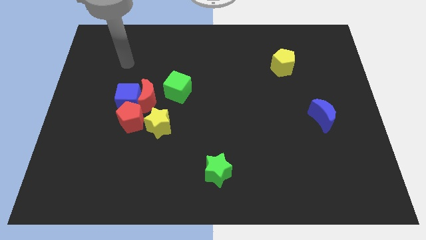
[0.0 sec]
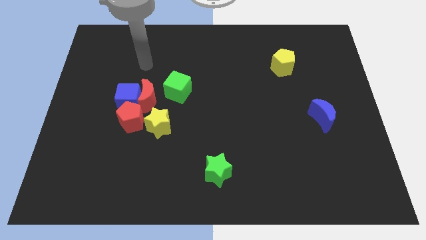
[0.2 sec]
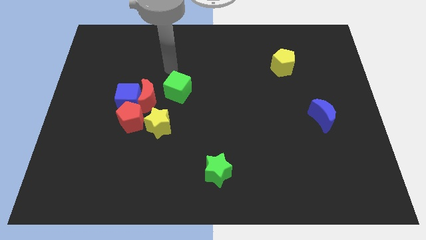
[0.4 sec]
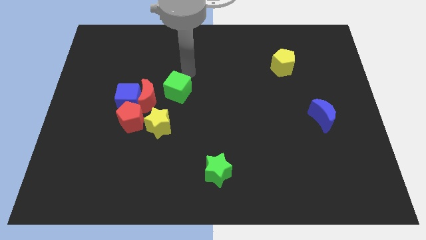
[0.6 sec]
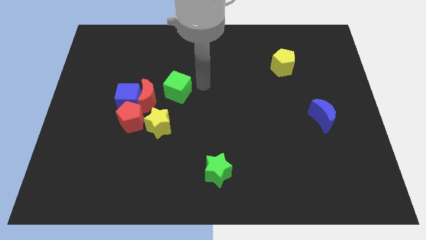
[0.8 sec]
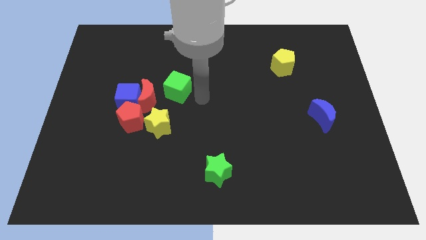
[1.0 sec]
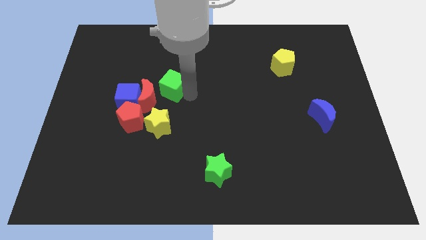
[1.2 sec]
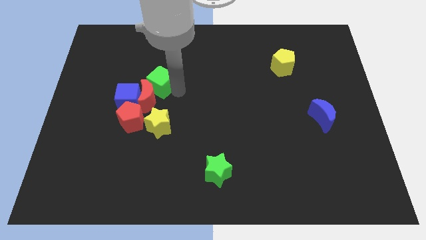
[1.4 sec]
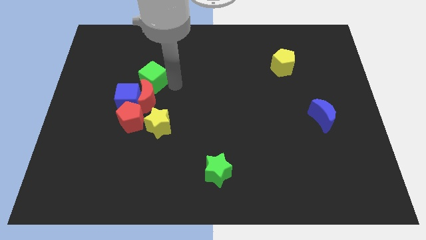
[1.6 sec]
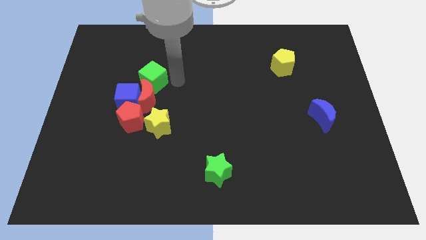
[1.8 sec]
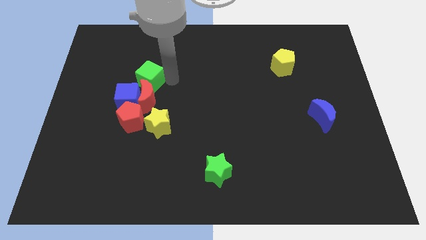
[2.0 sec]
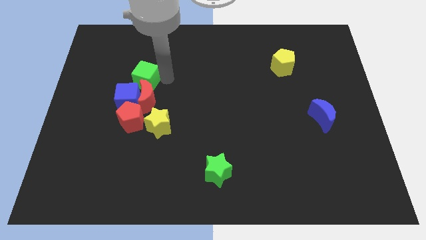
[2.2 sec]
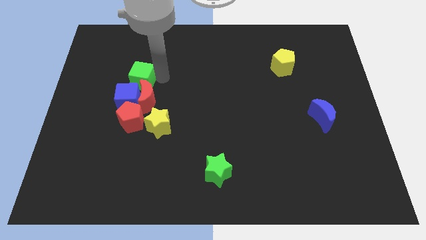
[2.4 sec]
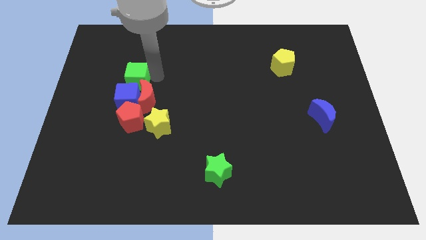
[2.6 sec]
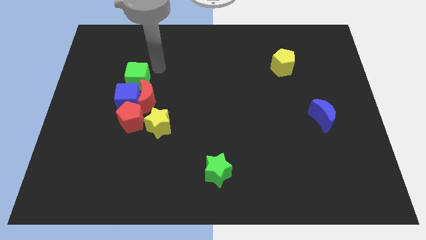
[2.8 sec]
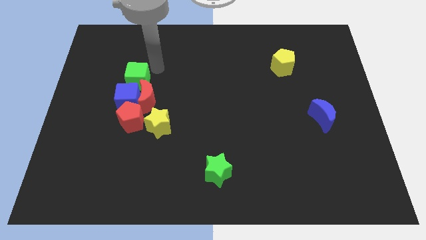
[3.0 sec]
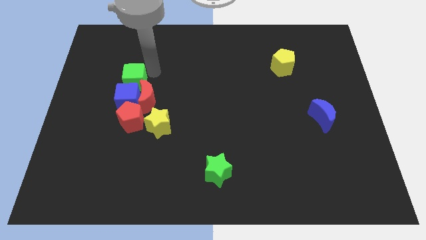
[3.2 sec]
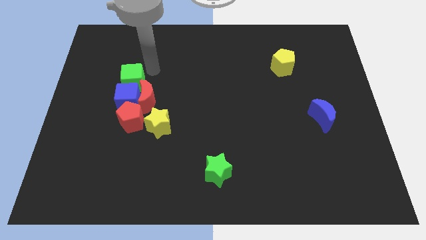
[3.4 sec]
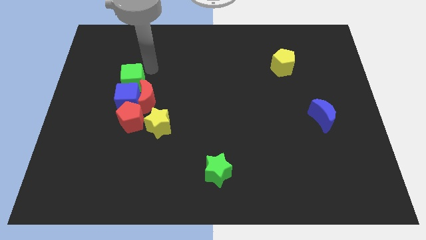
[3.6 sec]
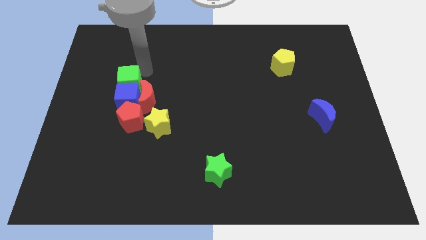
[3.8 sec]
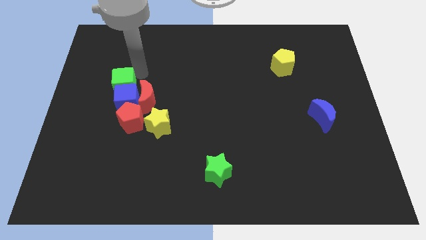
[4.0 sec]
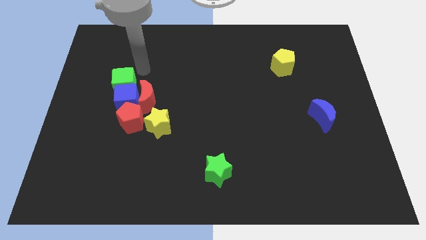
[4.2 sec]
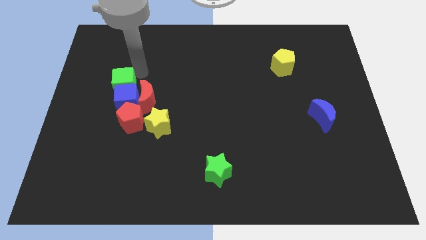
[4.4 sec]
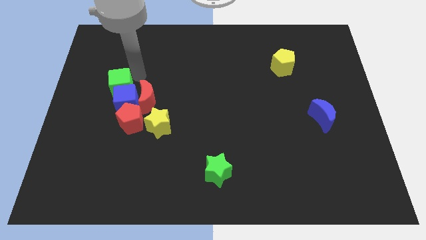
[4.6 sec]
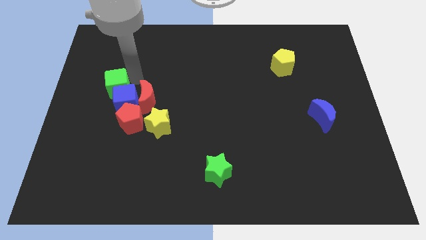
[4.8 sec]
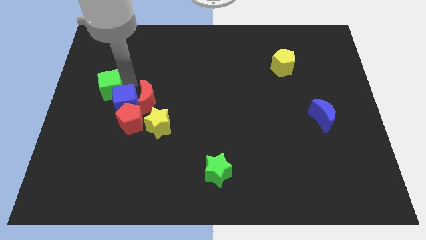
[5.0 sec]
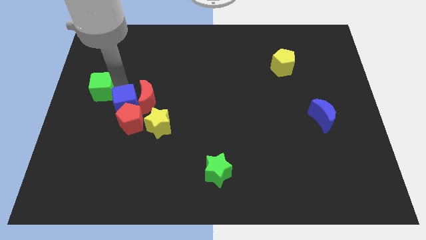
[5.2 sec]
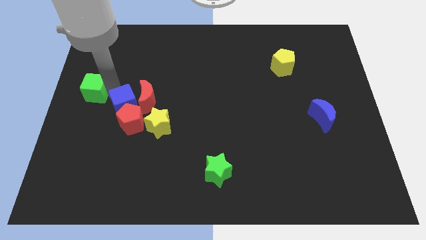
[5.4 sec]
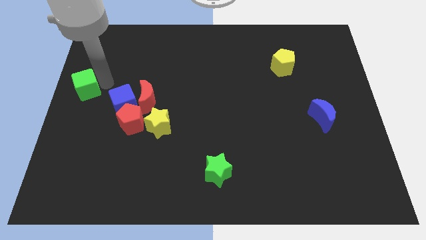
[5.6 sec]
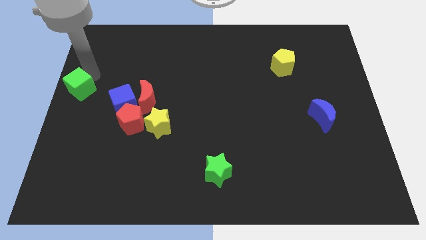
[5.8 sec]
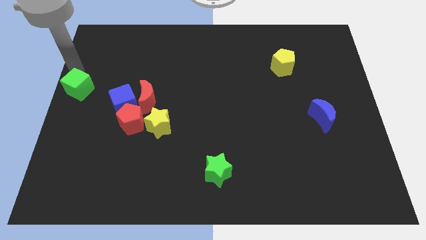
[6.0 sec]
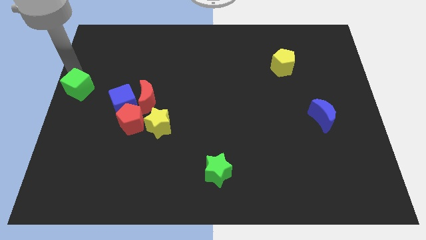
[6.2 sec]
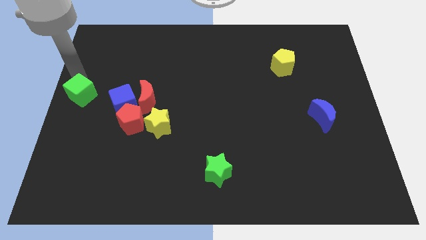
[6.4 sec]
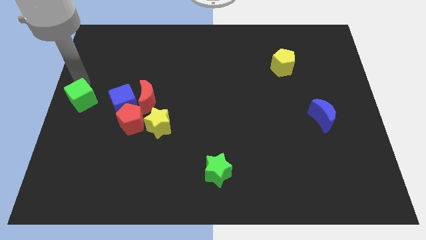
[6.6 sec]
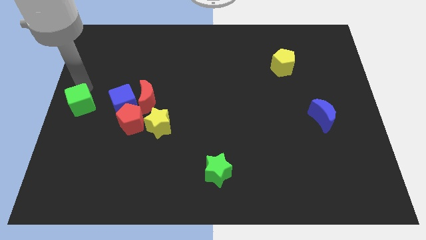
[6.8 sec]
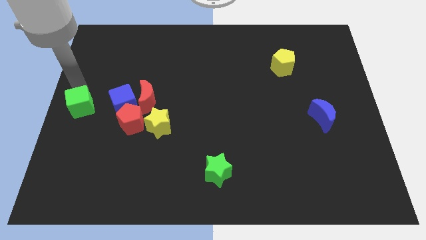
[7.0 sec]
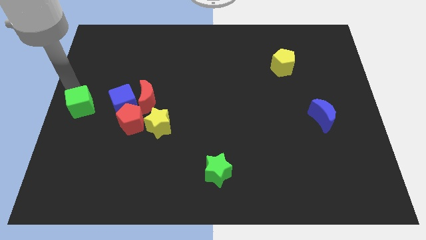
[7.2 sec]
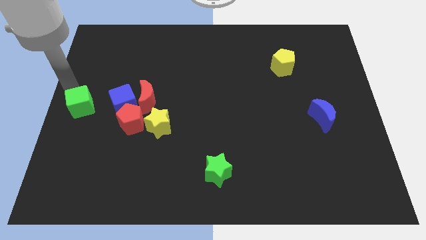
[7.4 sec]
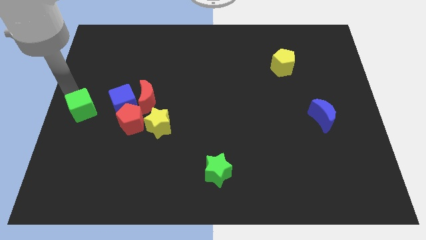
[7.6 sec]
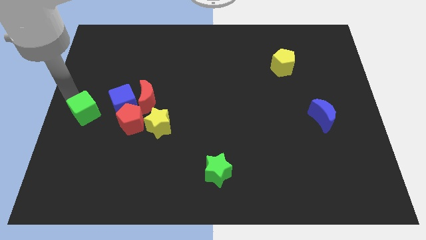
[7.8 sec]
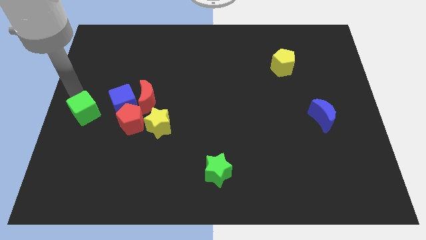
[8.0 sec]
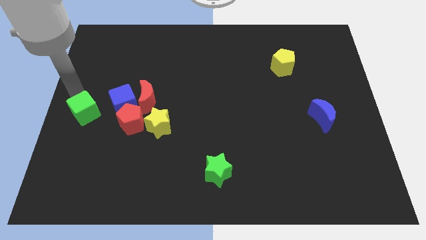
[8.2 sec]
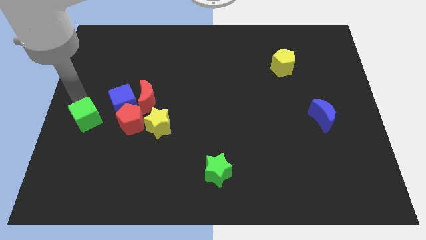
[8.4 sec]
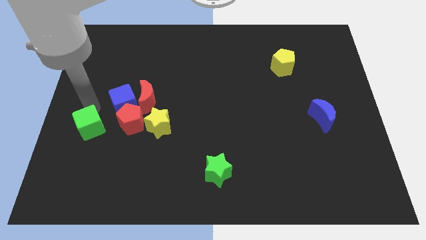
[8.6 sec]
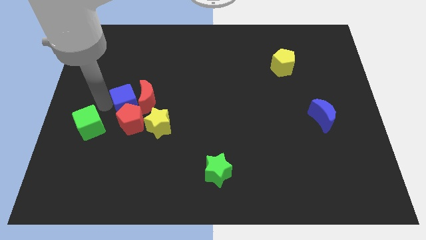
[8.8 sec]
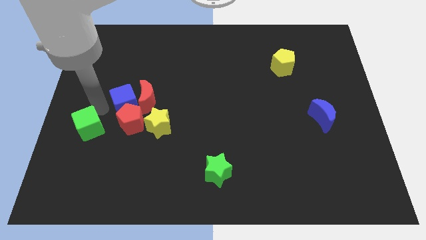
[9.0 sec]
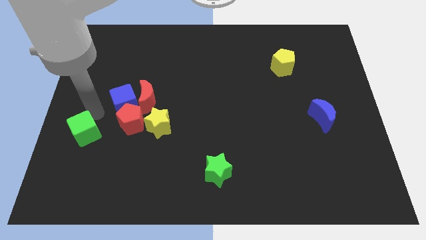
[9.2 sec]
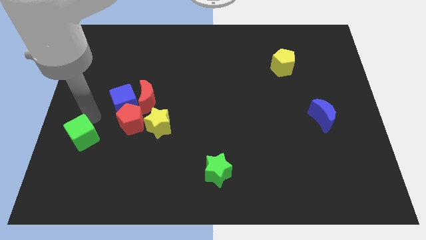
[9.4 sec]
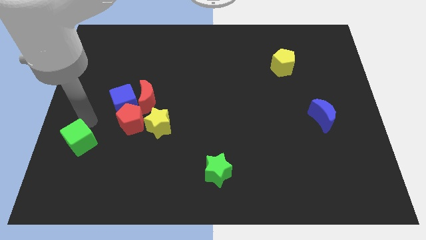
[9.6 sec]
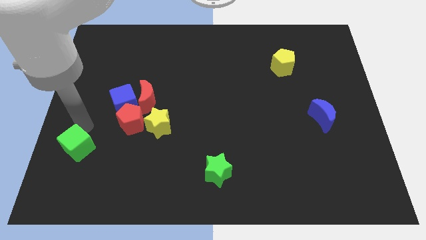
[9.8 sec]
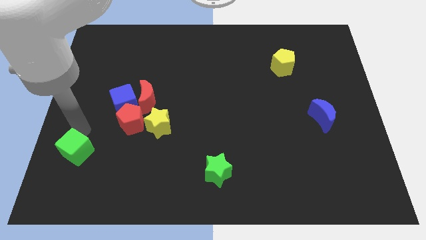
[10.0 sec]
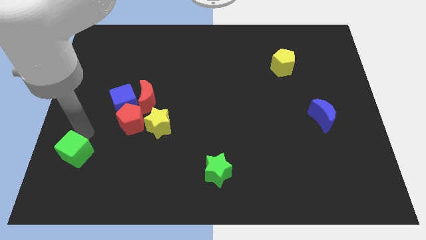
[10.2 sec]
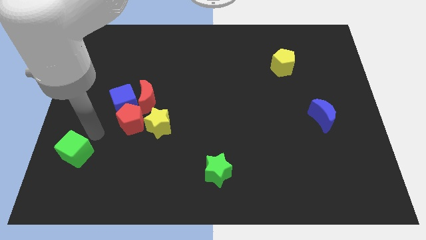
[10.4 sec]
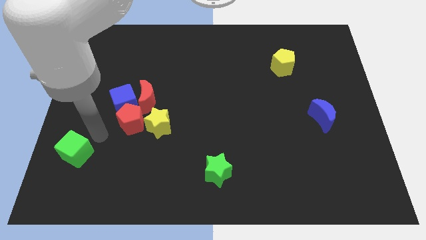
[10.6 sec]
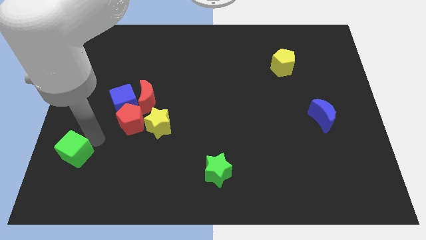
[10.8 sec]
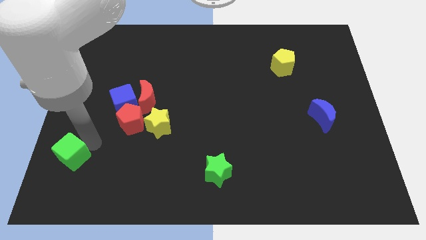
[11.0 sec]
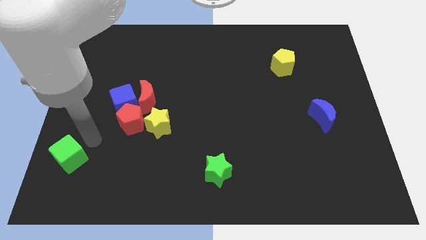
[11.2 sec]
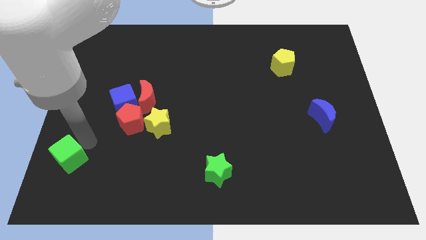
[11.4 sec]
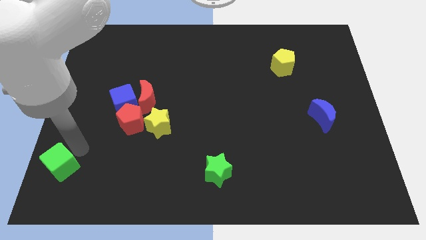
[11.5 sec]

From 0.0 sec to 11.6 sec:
move the green cube to the bottom left of the board
